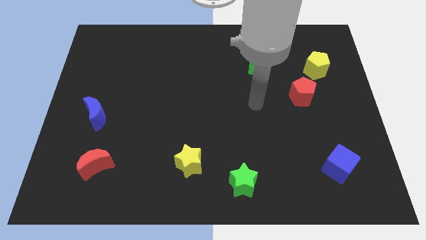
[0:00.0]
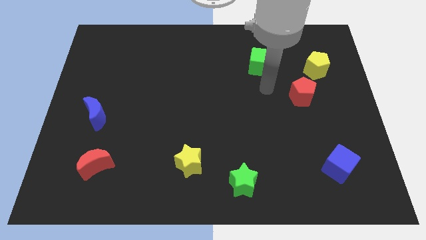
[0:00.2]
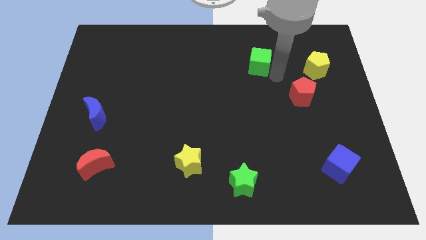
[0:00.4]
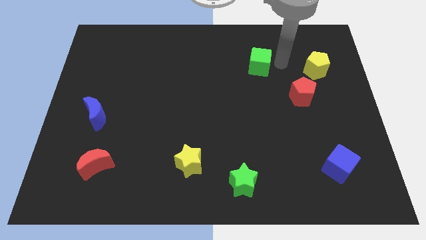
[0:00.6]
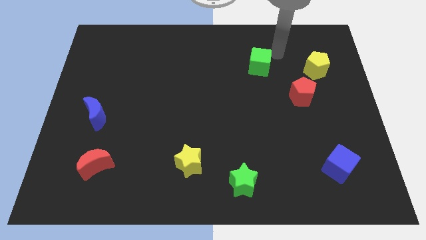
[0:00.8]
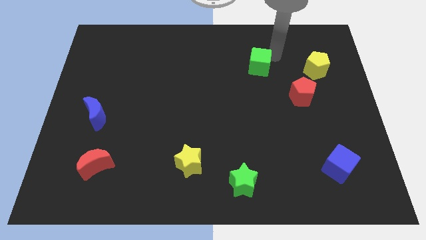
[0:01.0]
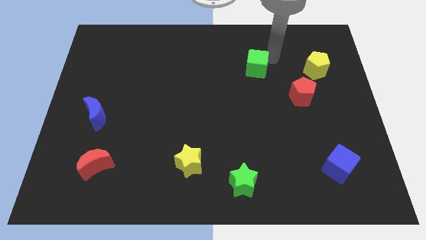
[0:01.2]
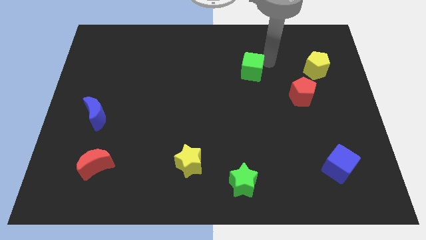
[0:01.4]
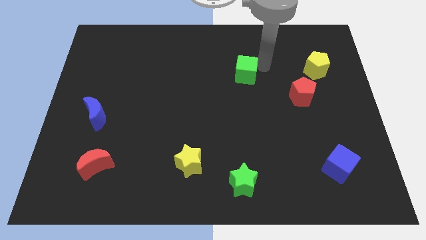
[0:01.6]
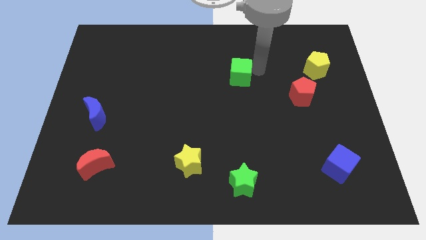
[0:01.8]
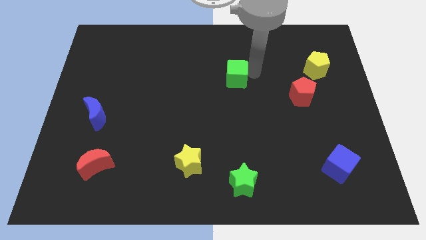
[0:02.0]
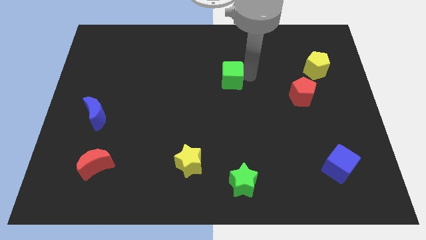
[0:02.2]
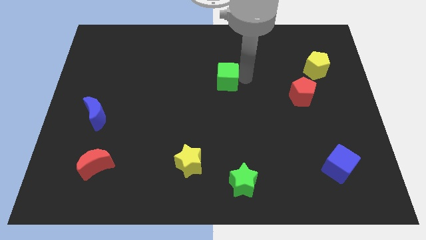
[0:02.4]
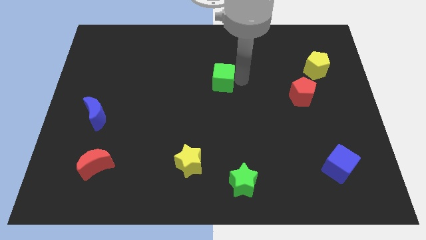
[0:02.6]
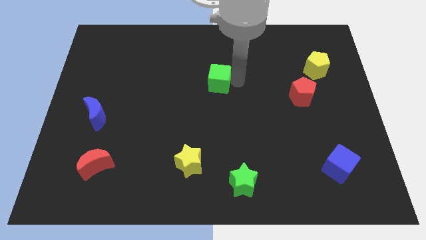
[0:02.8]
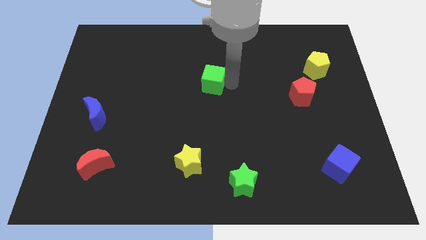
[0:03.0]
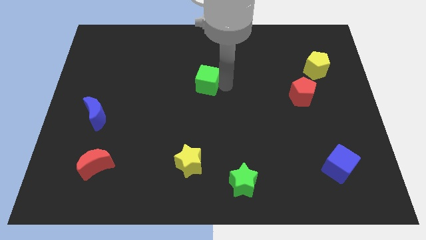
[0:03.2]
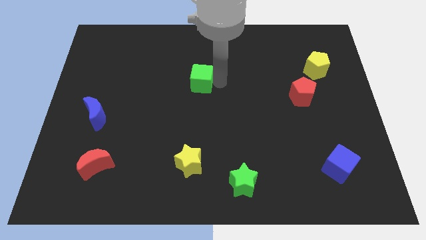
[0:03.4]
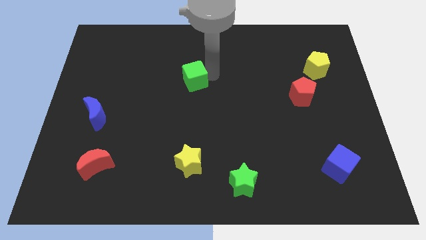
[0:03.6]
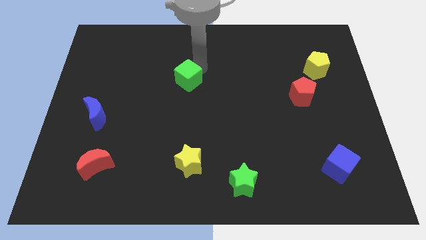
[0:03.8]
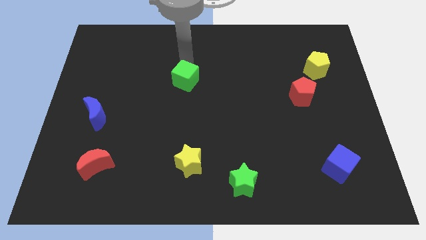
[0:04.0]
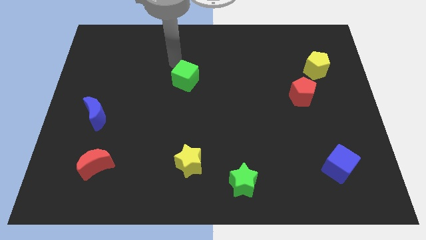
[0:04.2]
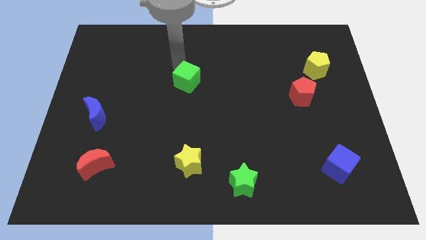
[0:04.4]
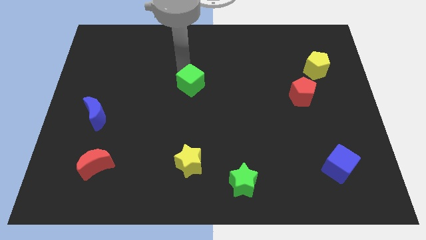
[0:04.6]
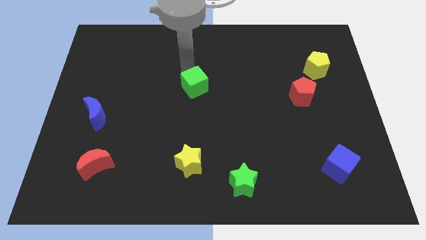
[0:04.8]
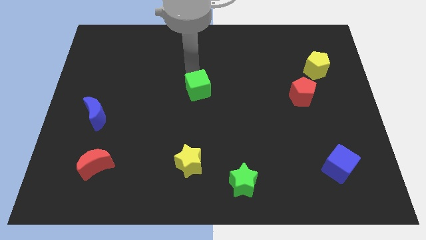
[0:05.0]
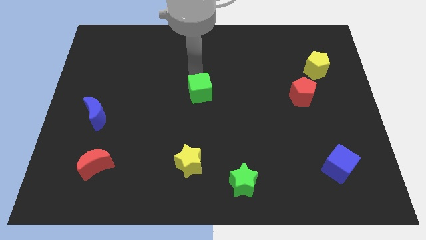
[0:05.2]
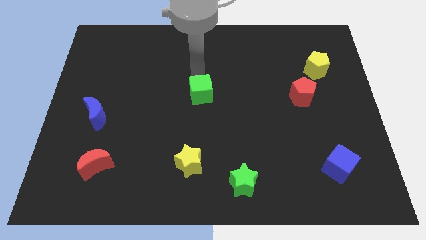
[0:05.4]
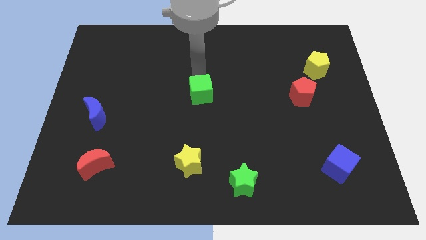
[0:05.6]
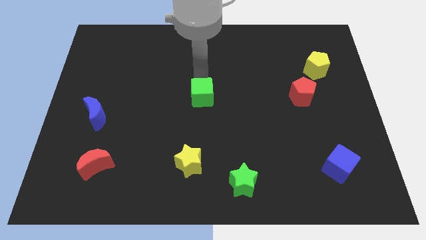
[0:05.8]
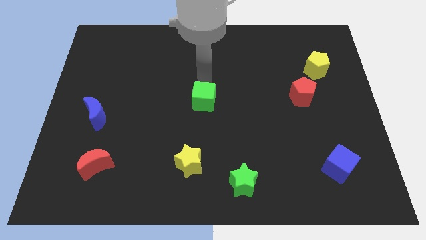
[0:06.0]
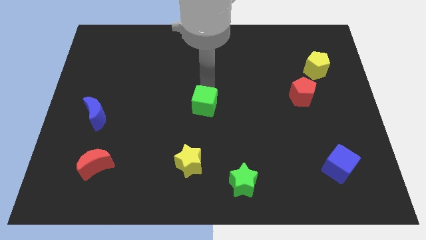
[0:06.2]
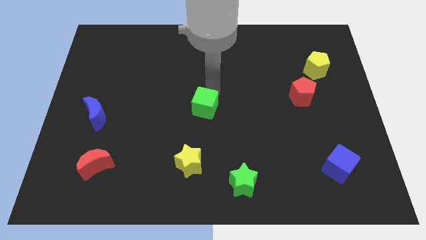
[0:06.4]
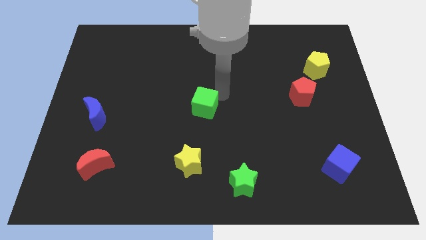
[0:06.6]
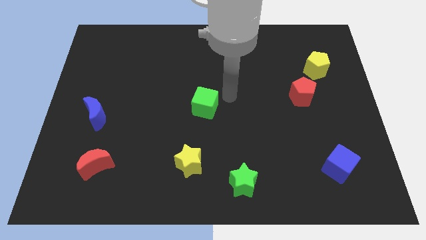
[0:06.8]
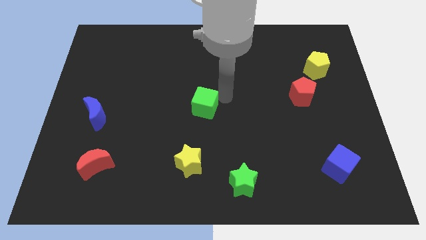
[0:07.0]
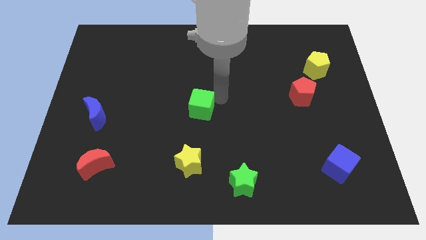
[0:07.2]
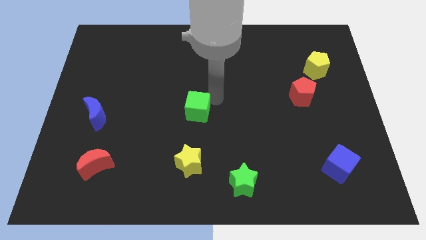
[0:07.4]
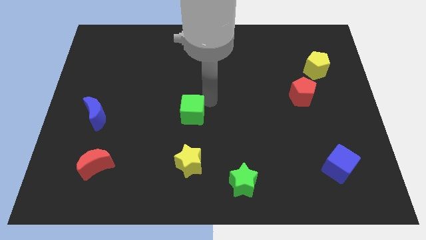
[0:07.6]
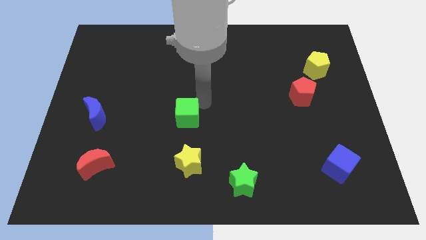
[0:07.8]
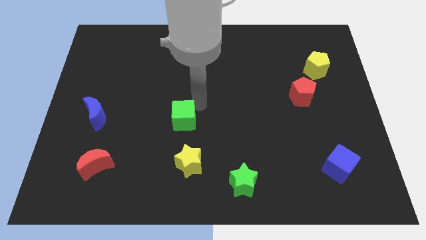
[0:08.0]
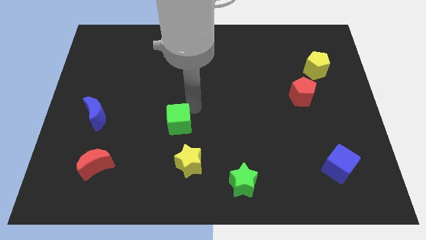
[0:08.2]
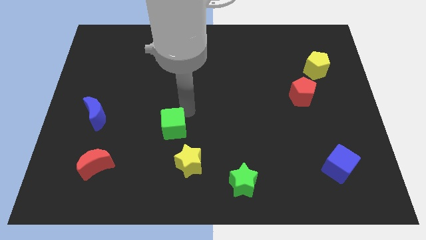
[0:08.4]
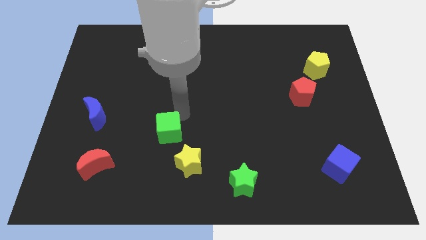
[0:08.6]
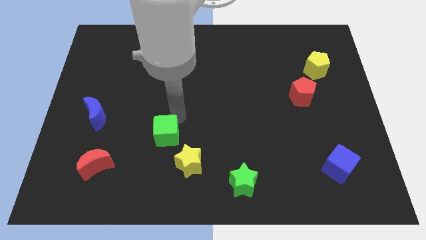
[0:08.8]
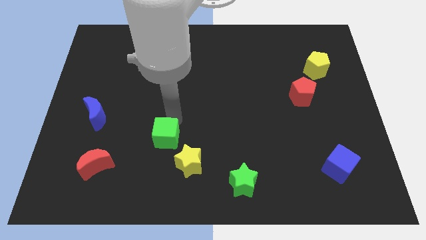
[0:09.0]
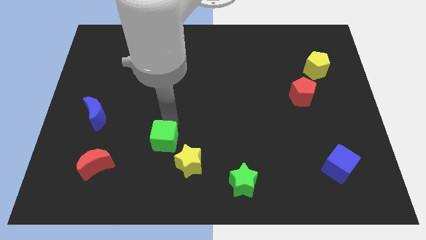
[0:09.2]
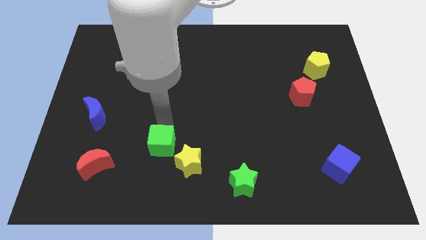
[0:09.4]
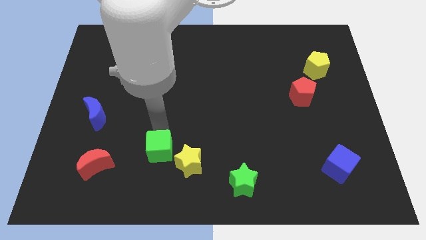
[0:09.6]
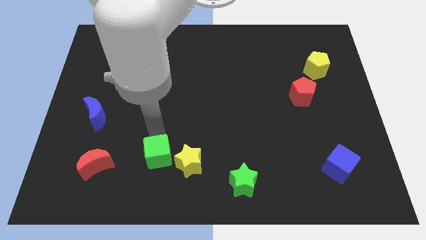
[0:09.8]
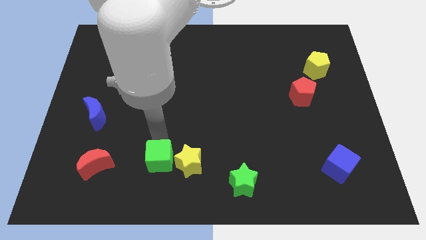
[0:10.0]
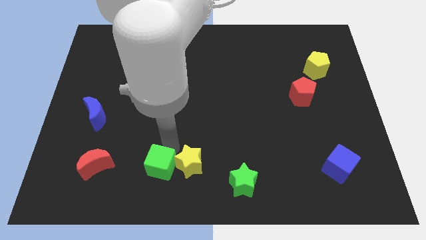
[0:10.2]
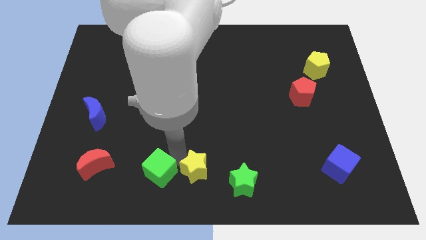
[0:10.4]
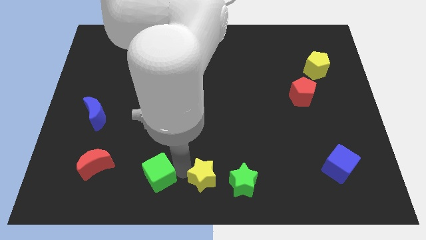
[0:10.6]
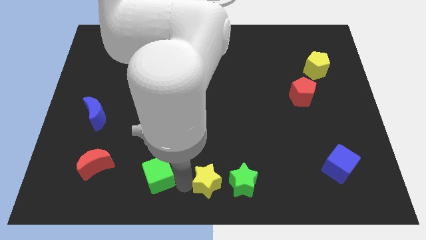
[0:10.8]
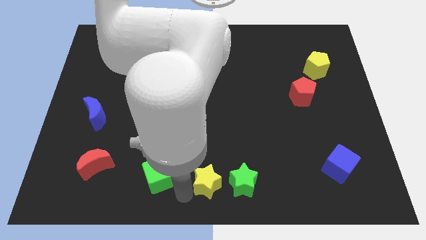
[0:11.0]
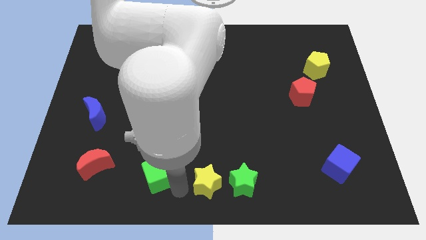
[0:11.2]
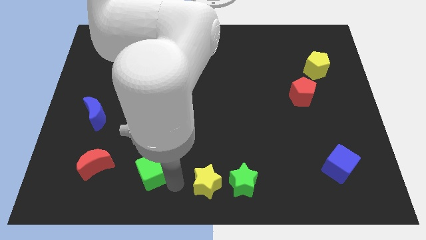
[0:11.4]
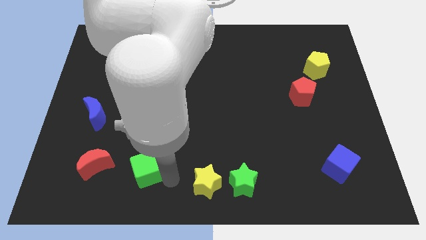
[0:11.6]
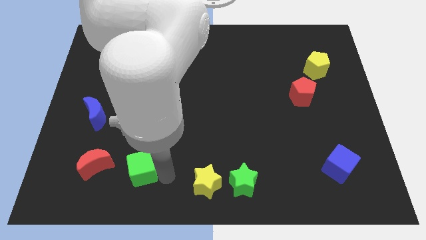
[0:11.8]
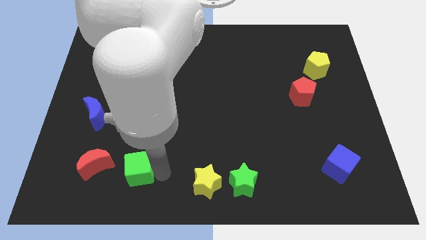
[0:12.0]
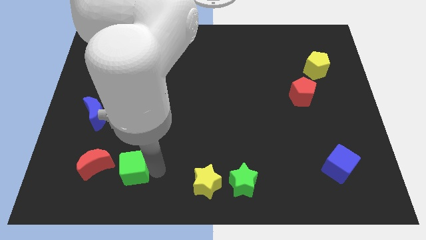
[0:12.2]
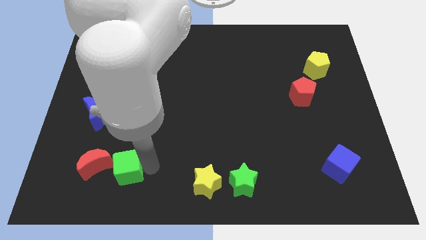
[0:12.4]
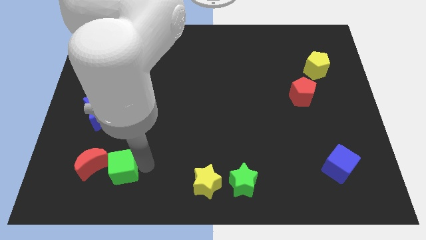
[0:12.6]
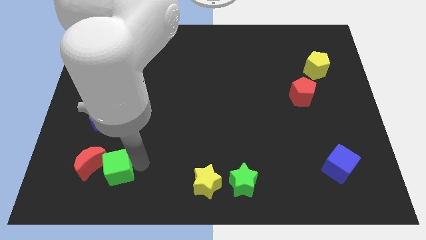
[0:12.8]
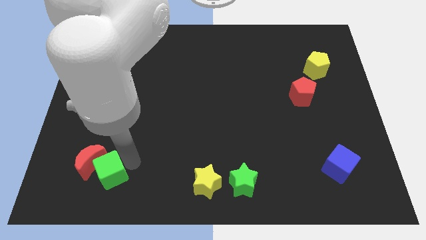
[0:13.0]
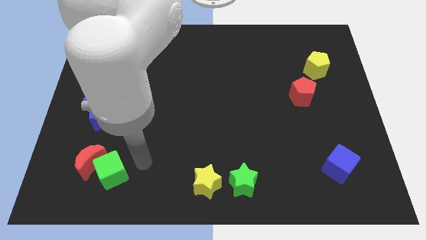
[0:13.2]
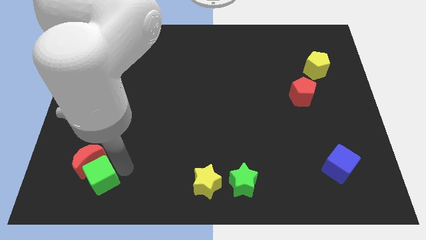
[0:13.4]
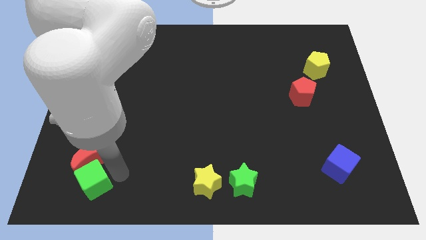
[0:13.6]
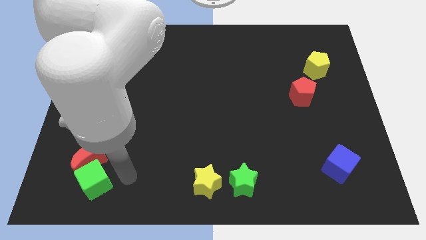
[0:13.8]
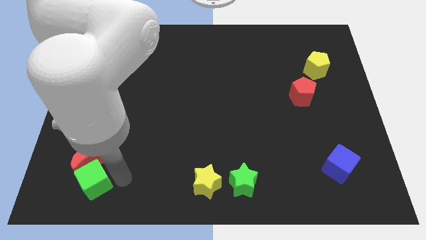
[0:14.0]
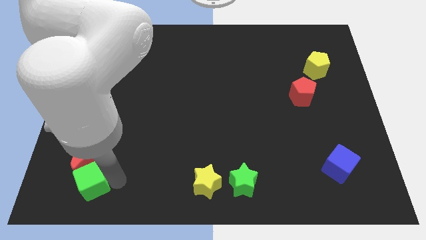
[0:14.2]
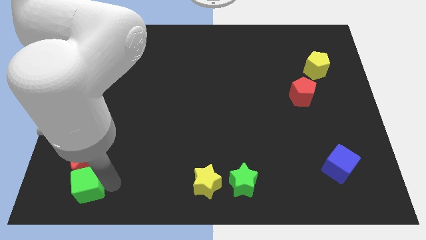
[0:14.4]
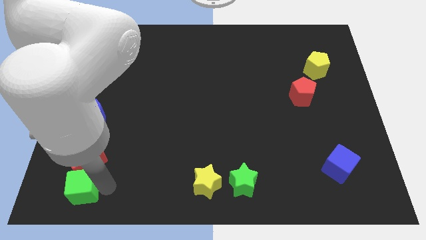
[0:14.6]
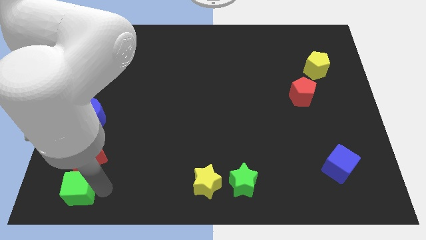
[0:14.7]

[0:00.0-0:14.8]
move the green cube to the bottom left of the board

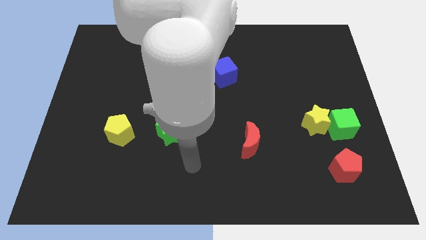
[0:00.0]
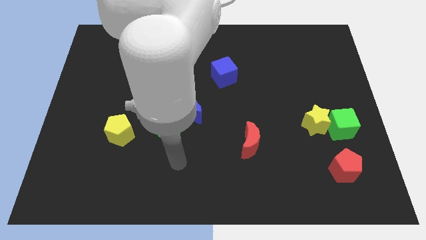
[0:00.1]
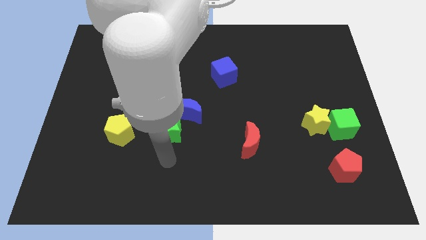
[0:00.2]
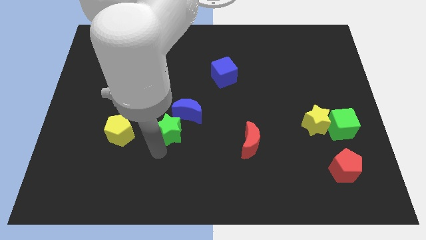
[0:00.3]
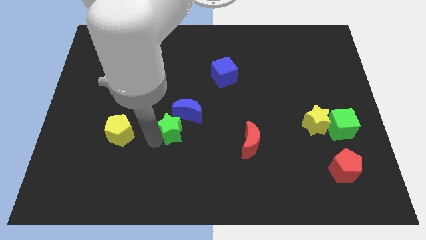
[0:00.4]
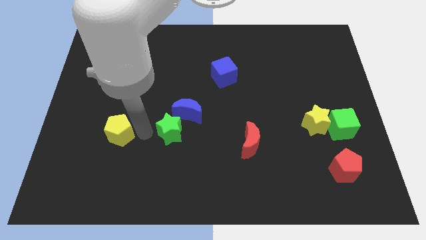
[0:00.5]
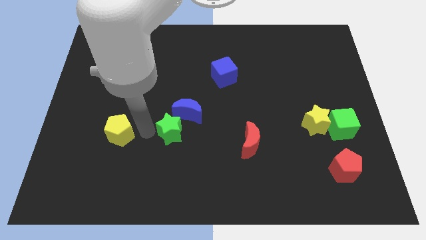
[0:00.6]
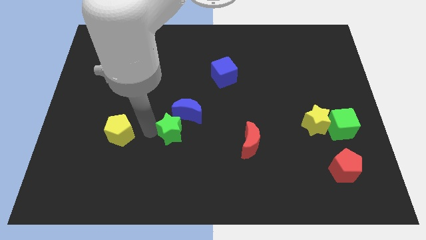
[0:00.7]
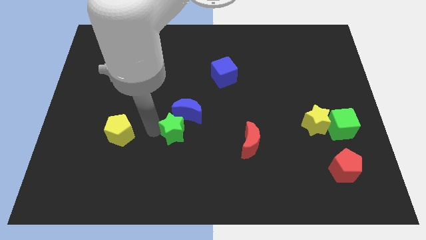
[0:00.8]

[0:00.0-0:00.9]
slide the green star to the center
